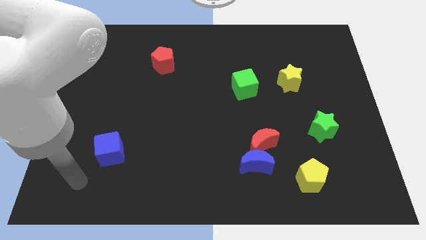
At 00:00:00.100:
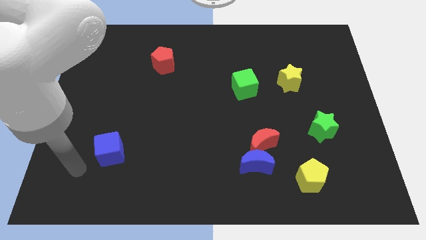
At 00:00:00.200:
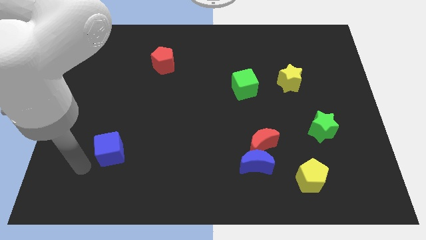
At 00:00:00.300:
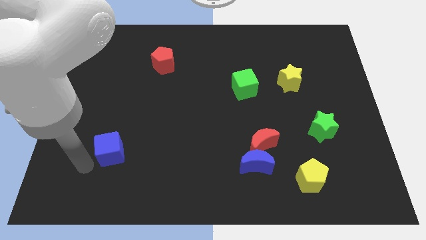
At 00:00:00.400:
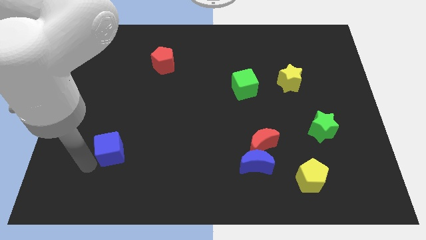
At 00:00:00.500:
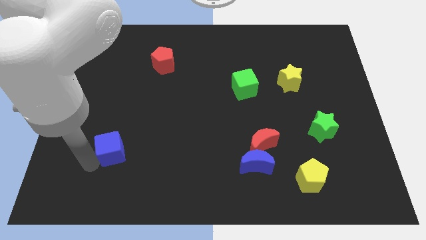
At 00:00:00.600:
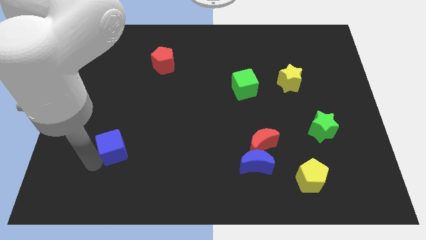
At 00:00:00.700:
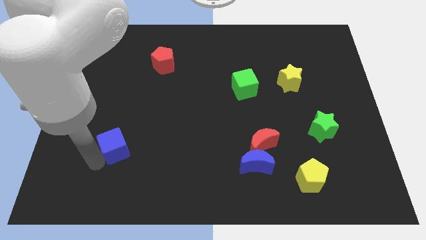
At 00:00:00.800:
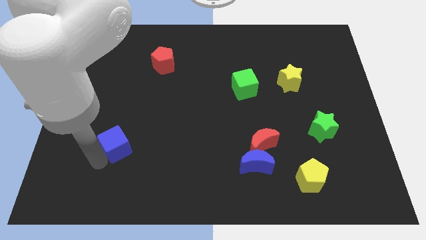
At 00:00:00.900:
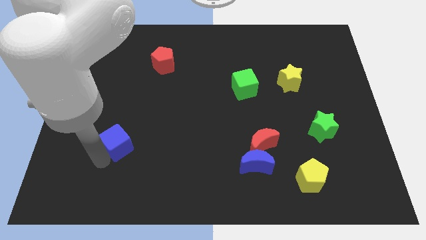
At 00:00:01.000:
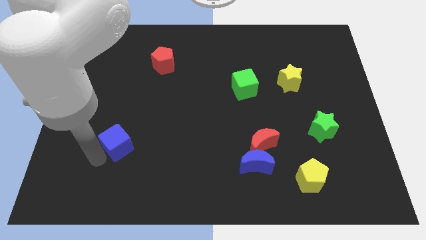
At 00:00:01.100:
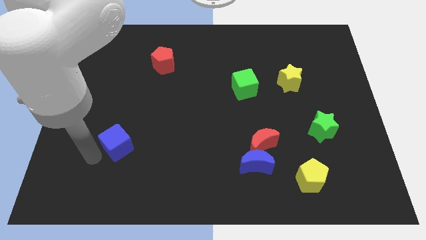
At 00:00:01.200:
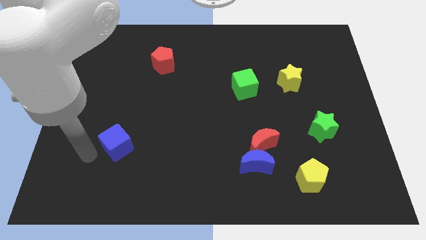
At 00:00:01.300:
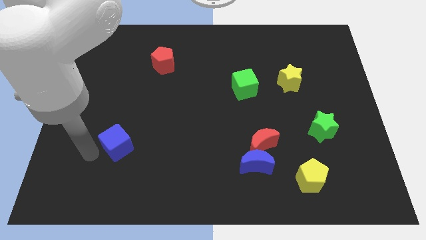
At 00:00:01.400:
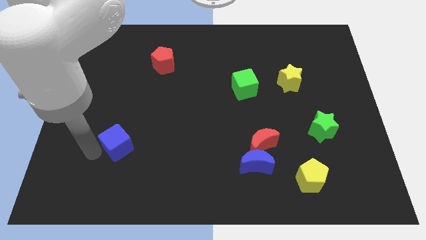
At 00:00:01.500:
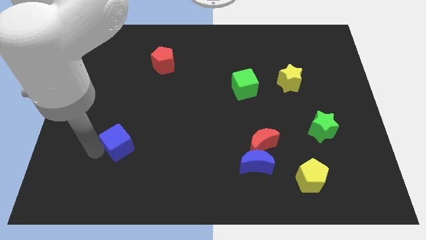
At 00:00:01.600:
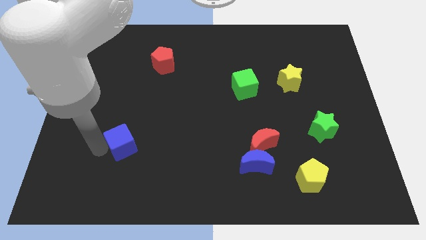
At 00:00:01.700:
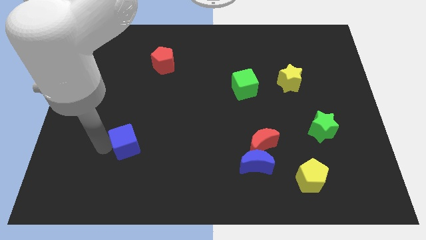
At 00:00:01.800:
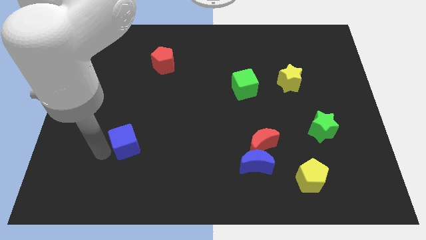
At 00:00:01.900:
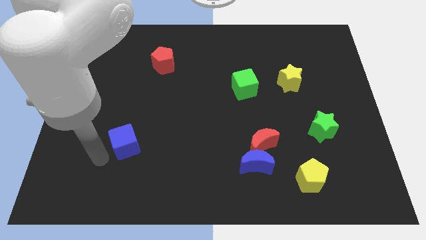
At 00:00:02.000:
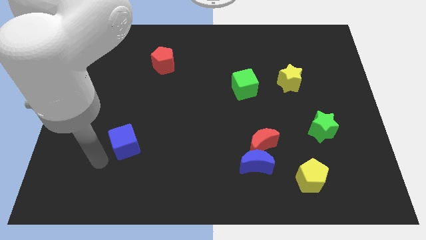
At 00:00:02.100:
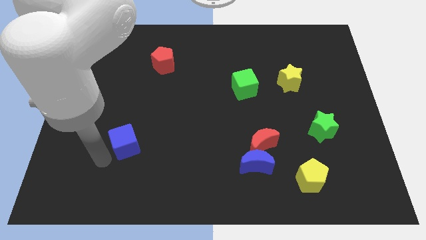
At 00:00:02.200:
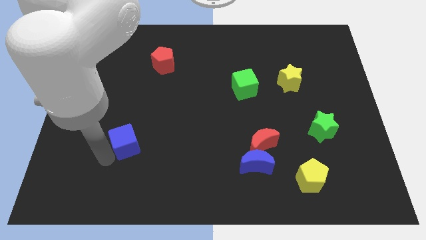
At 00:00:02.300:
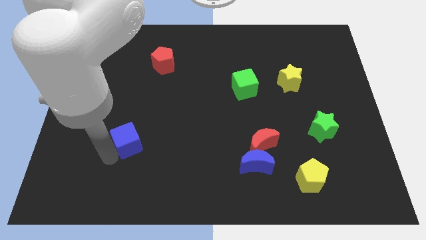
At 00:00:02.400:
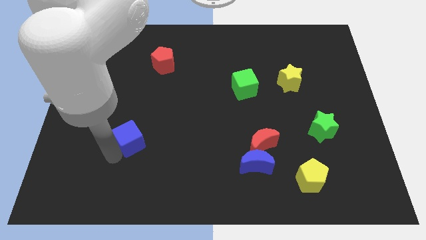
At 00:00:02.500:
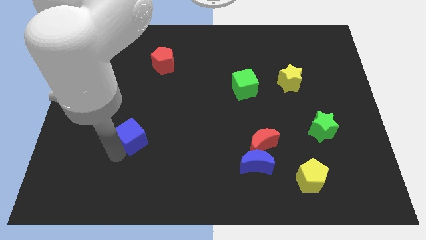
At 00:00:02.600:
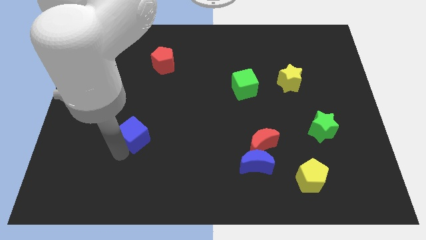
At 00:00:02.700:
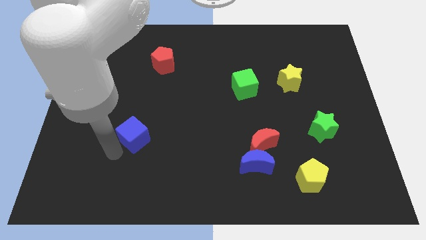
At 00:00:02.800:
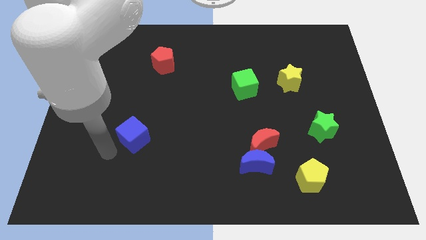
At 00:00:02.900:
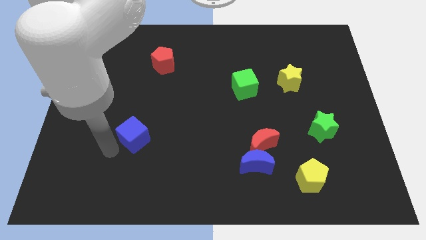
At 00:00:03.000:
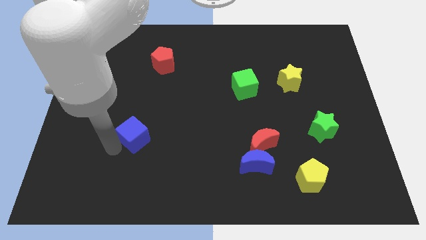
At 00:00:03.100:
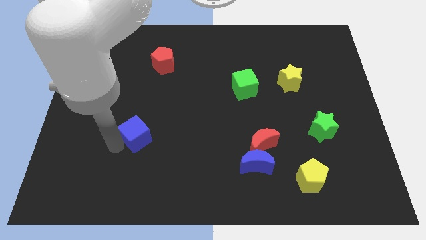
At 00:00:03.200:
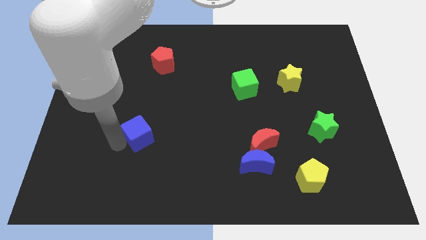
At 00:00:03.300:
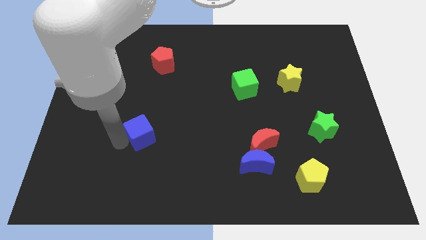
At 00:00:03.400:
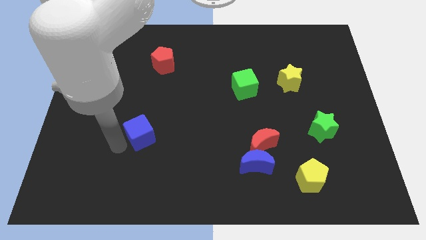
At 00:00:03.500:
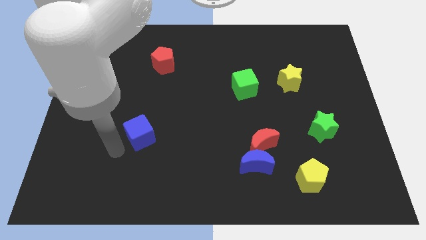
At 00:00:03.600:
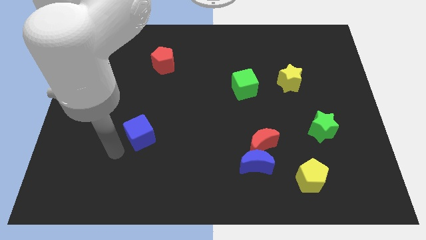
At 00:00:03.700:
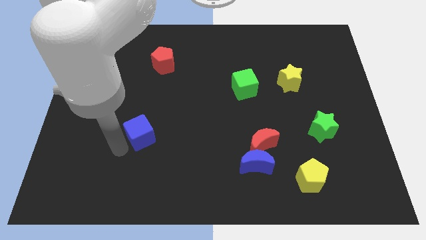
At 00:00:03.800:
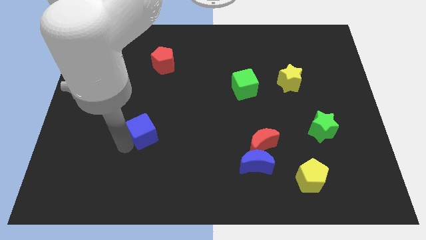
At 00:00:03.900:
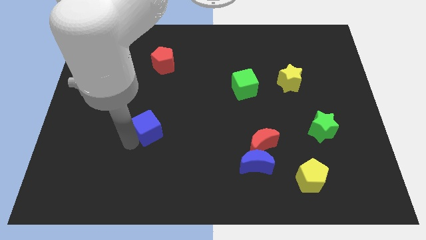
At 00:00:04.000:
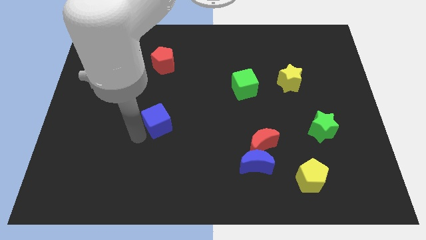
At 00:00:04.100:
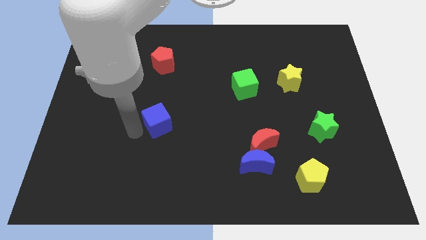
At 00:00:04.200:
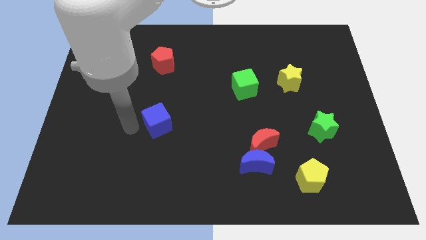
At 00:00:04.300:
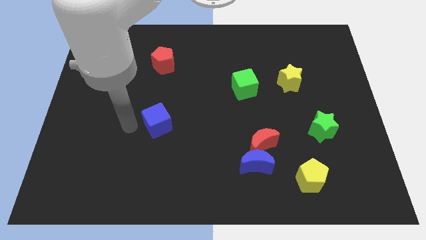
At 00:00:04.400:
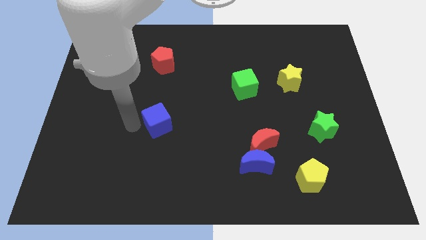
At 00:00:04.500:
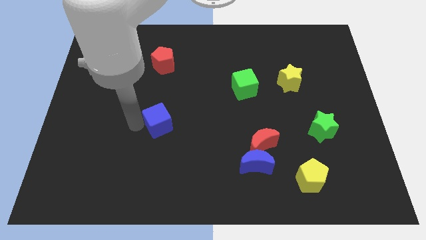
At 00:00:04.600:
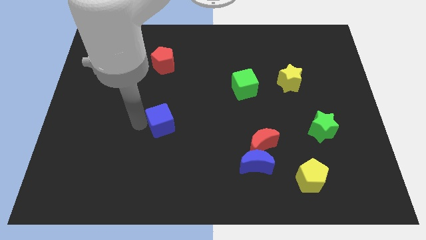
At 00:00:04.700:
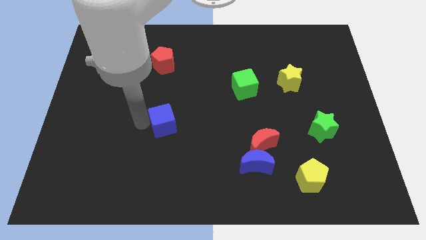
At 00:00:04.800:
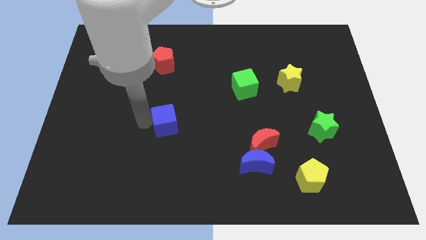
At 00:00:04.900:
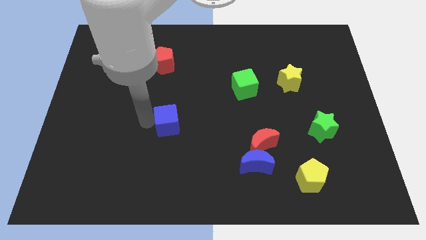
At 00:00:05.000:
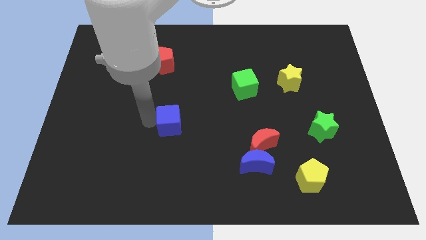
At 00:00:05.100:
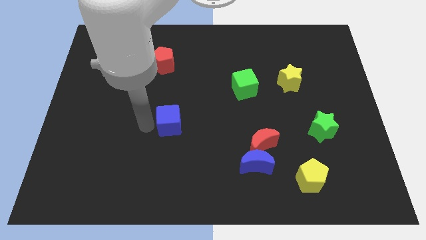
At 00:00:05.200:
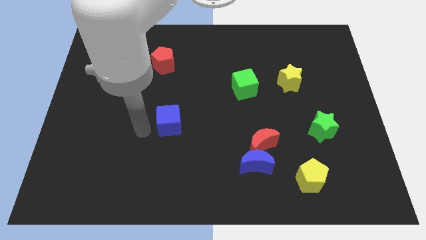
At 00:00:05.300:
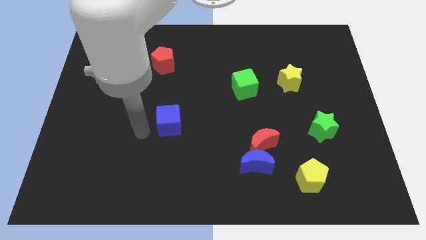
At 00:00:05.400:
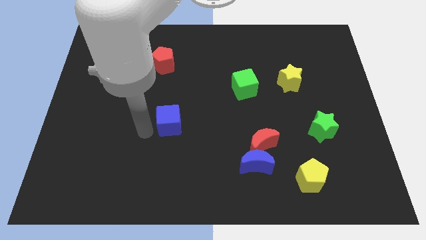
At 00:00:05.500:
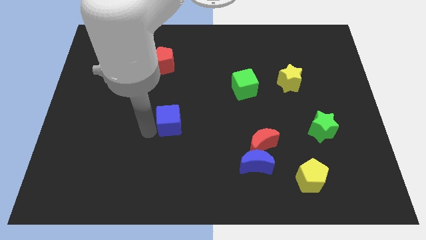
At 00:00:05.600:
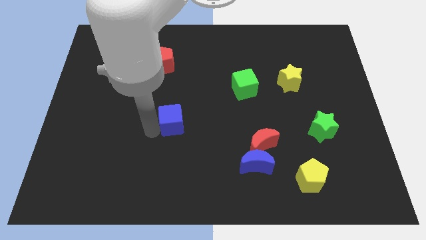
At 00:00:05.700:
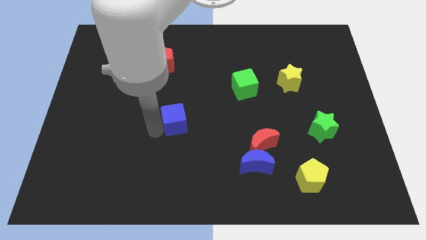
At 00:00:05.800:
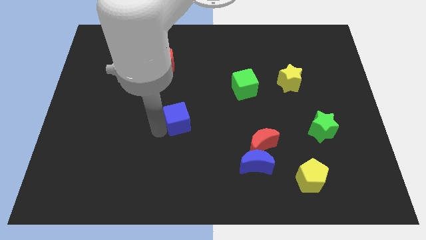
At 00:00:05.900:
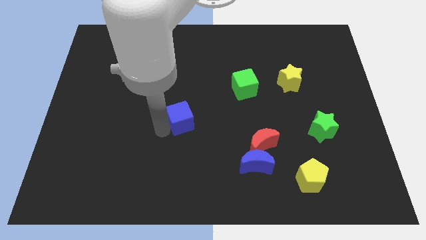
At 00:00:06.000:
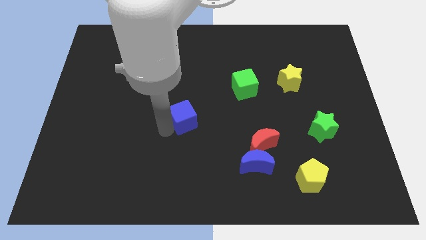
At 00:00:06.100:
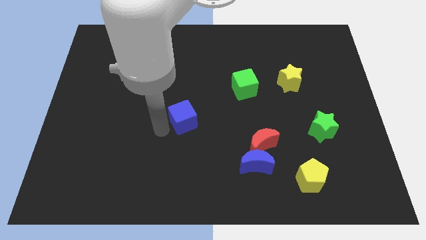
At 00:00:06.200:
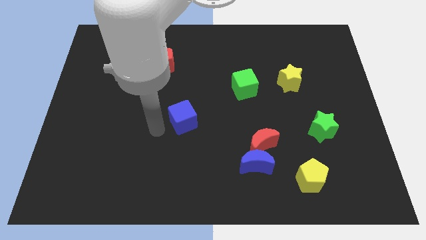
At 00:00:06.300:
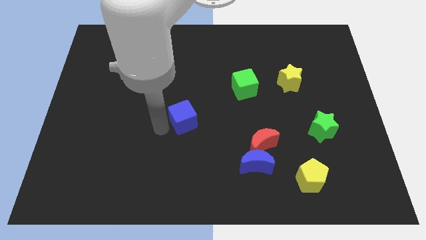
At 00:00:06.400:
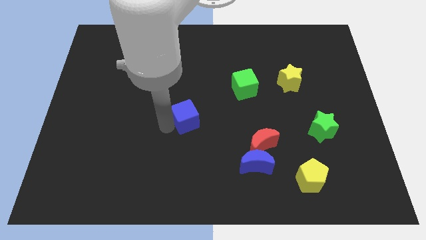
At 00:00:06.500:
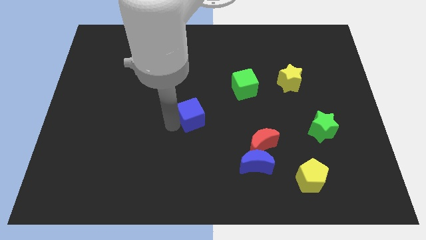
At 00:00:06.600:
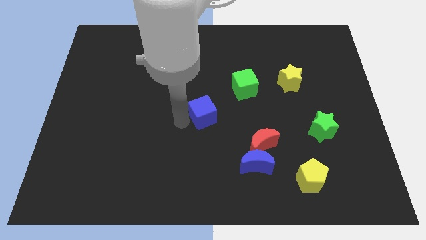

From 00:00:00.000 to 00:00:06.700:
slide the blue cube diagonally down and to the left of the green cube
